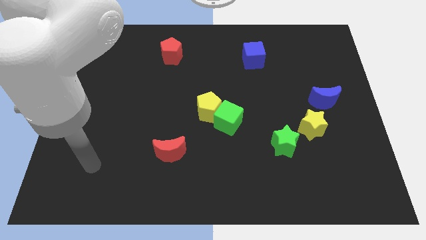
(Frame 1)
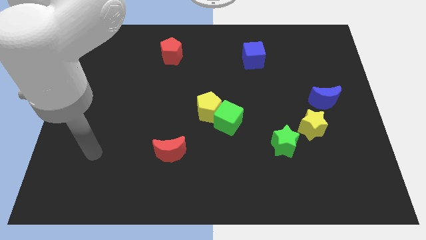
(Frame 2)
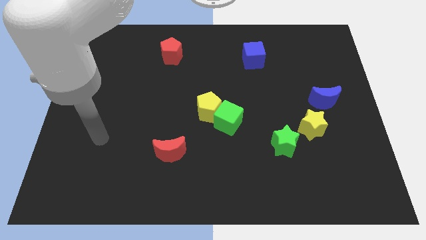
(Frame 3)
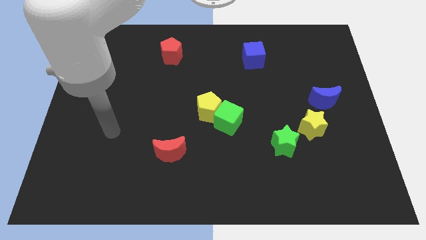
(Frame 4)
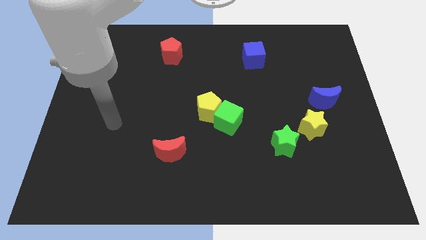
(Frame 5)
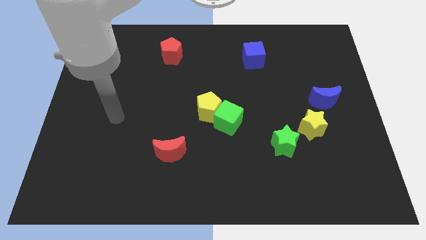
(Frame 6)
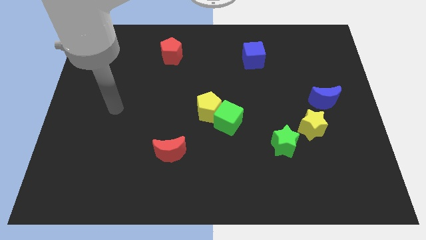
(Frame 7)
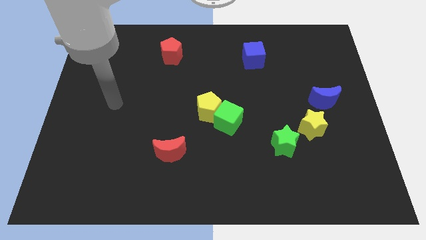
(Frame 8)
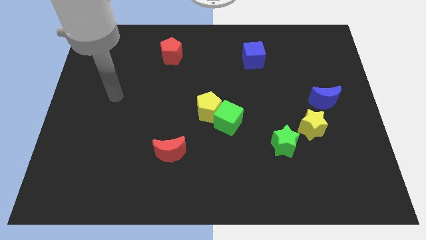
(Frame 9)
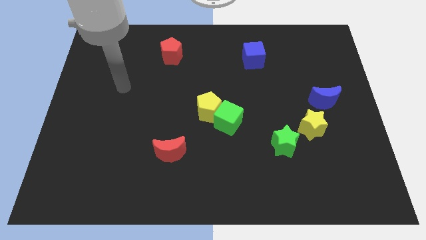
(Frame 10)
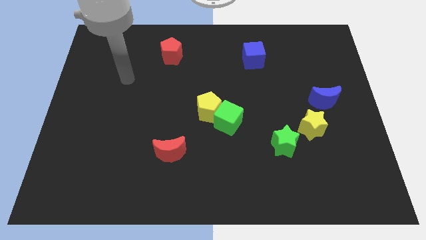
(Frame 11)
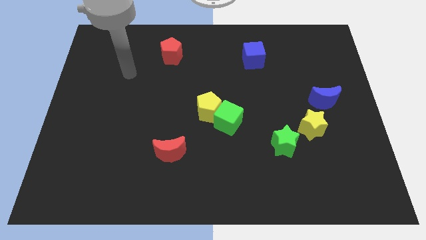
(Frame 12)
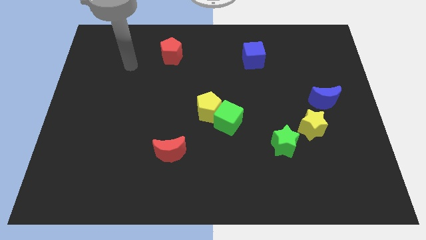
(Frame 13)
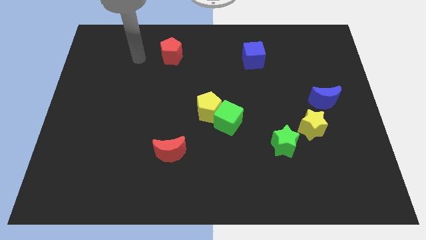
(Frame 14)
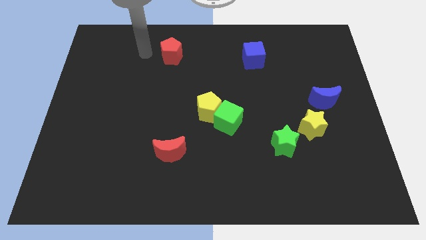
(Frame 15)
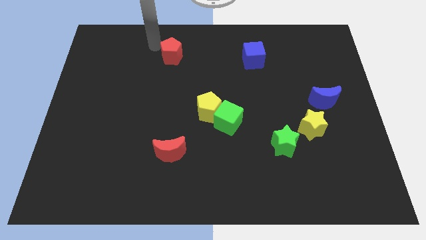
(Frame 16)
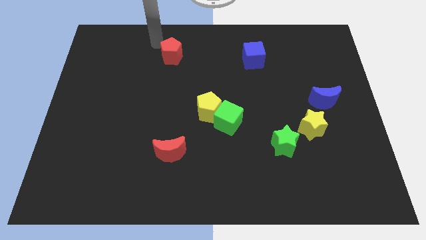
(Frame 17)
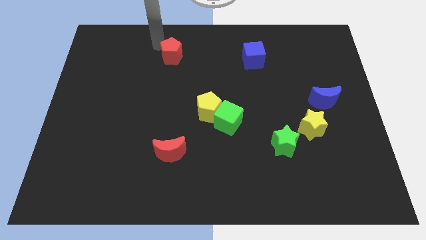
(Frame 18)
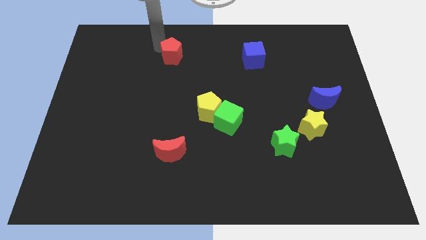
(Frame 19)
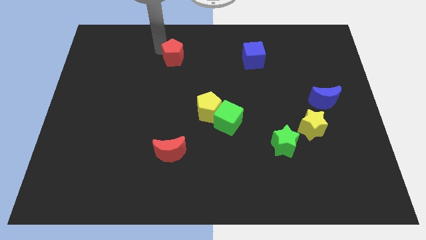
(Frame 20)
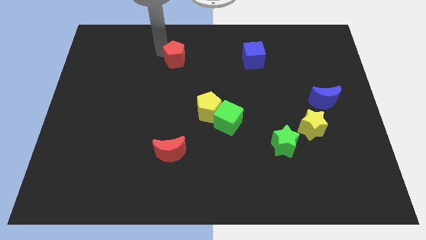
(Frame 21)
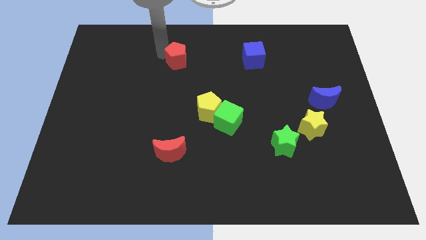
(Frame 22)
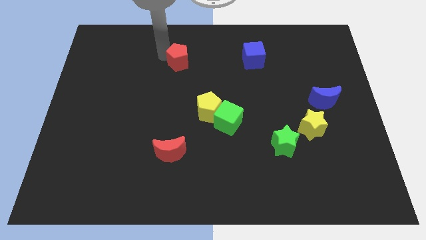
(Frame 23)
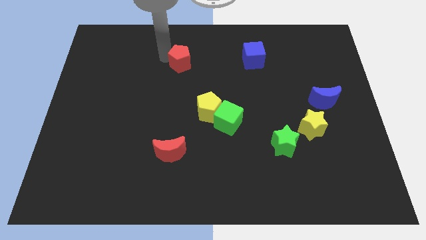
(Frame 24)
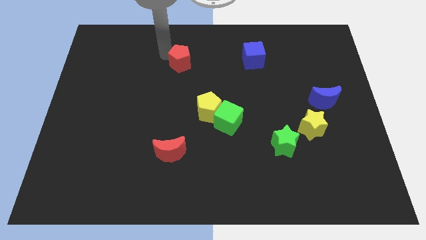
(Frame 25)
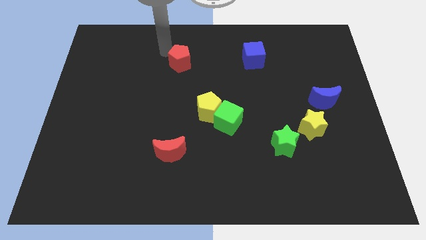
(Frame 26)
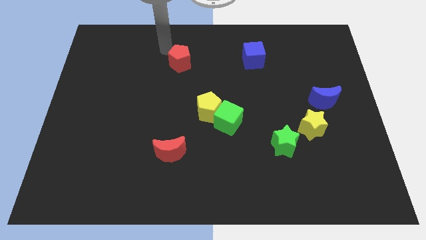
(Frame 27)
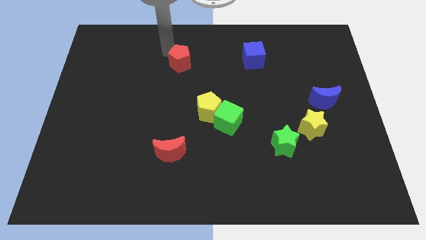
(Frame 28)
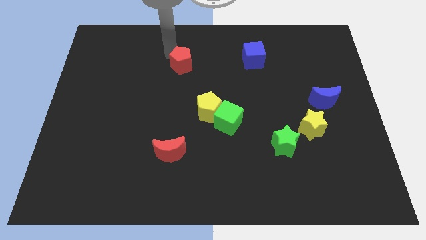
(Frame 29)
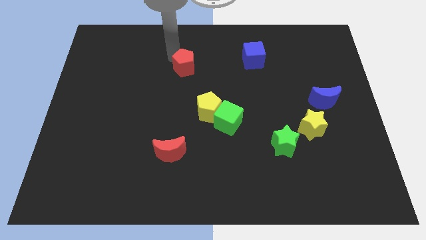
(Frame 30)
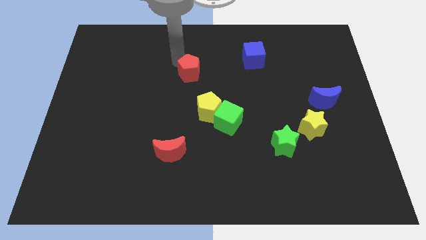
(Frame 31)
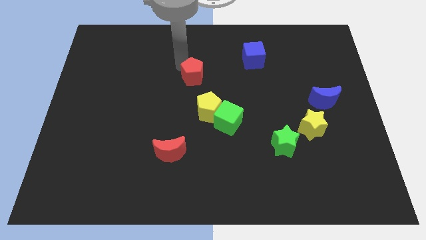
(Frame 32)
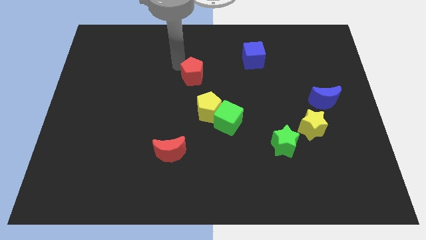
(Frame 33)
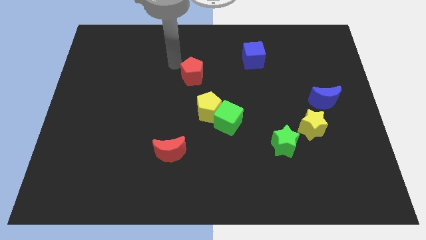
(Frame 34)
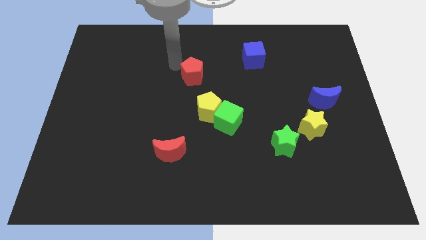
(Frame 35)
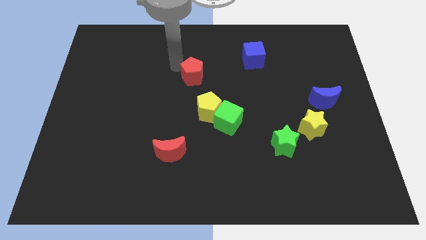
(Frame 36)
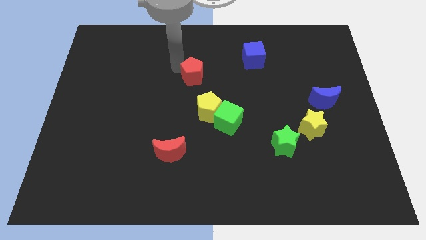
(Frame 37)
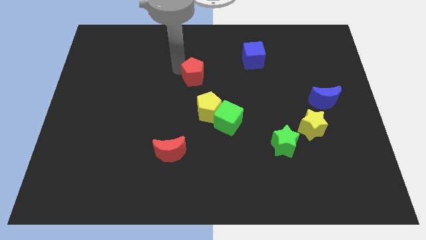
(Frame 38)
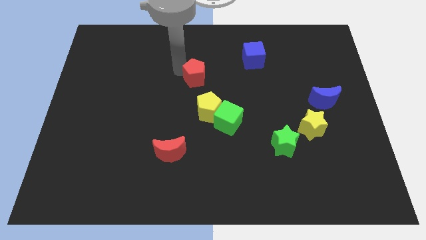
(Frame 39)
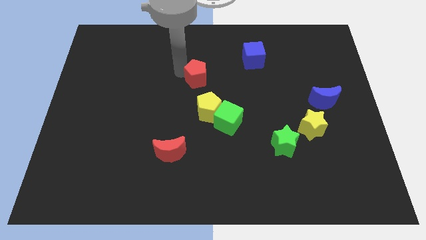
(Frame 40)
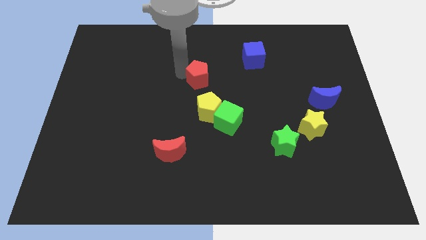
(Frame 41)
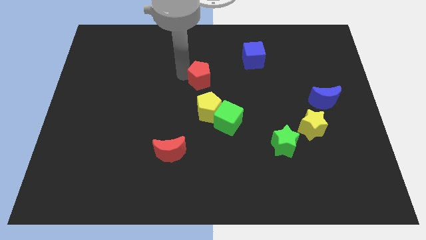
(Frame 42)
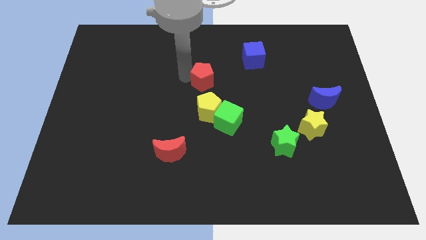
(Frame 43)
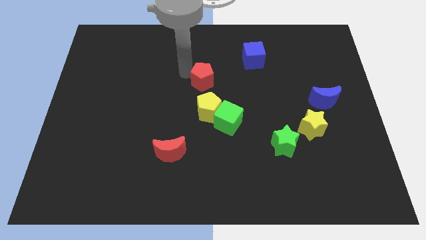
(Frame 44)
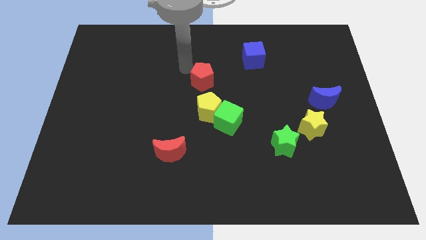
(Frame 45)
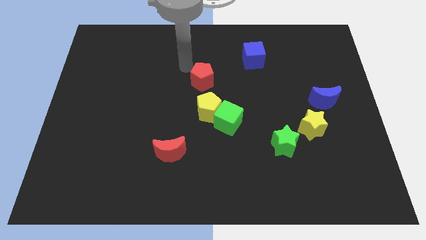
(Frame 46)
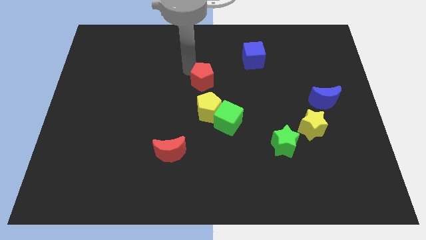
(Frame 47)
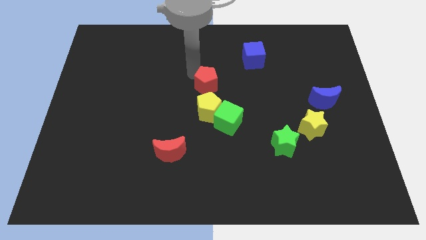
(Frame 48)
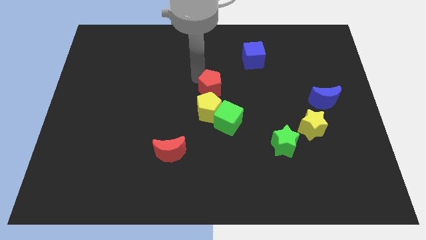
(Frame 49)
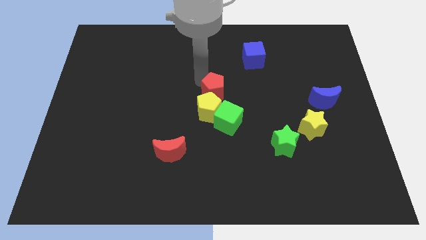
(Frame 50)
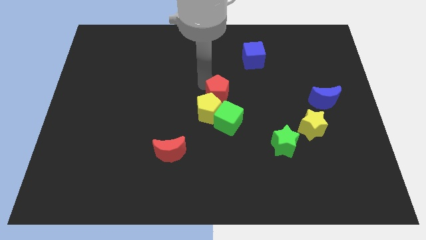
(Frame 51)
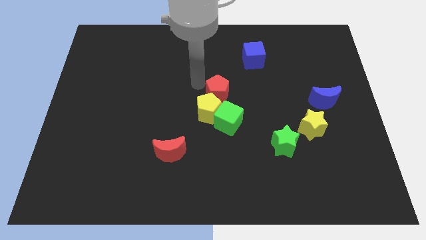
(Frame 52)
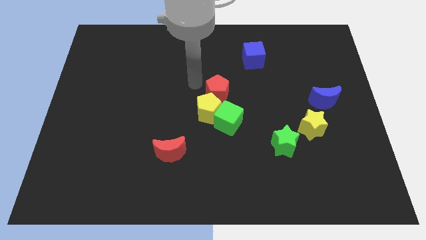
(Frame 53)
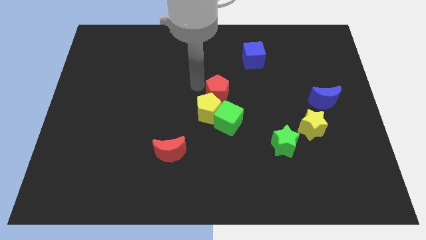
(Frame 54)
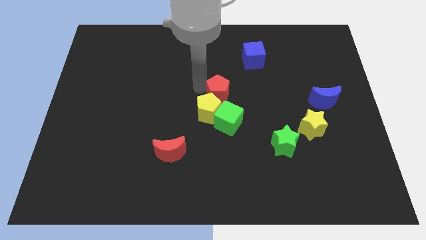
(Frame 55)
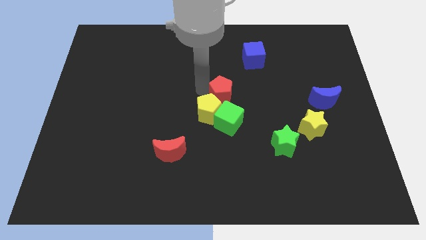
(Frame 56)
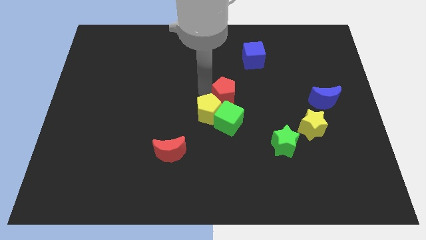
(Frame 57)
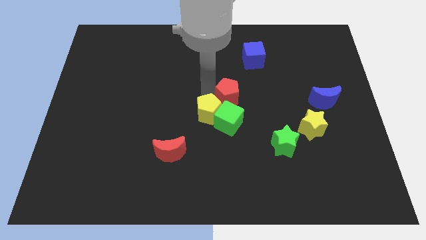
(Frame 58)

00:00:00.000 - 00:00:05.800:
put the red pentagon to the right of the yellow pentagon

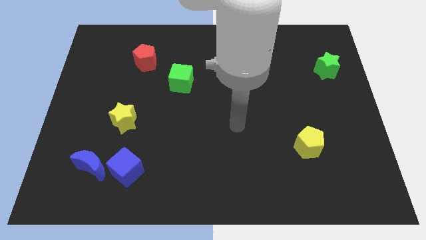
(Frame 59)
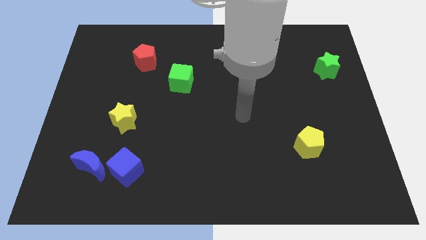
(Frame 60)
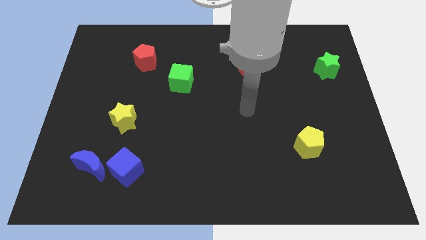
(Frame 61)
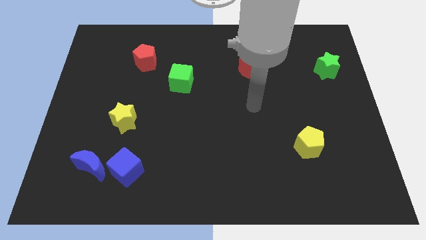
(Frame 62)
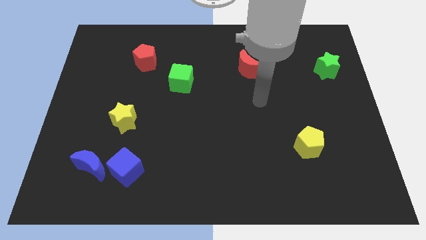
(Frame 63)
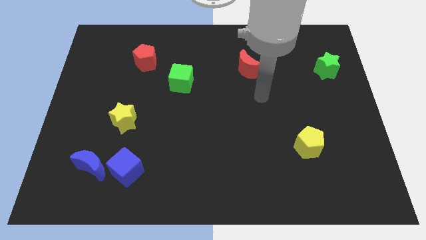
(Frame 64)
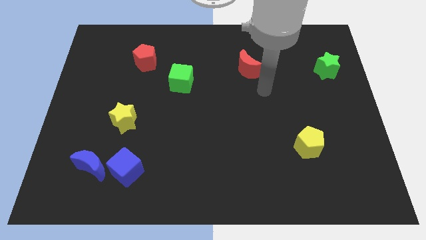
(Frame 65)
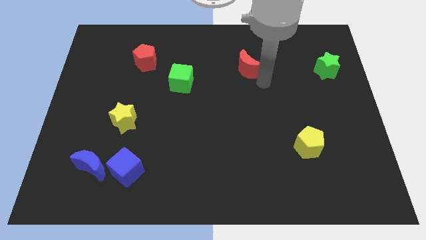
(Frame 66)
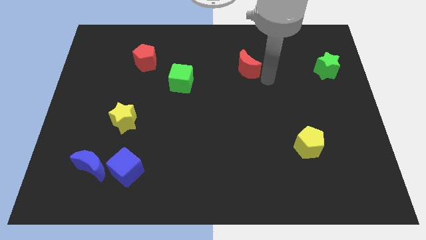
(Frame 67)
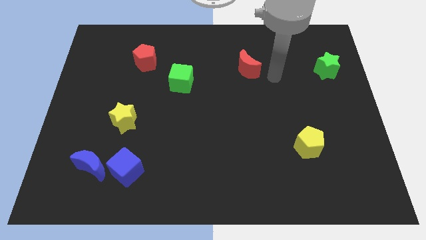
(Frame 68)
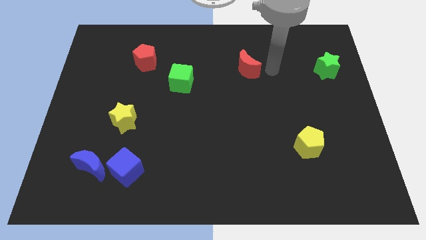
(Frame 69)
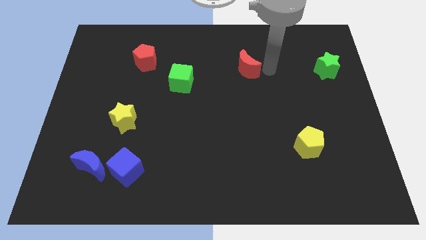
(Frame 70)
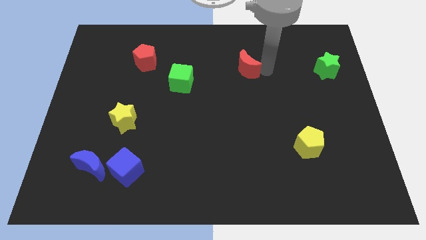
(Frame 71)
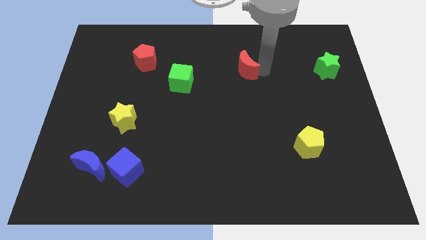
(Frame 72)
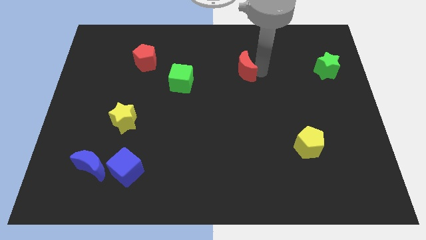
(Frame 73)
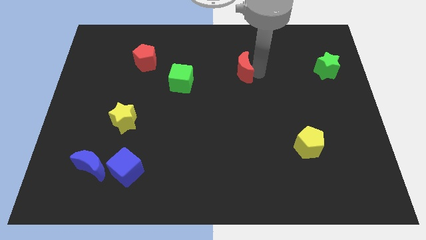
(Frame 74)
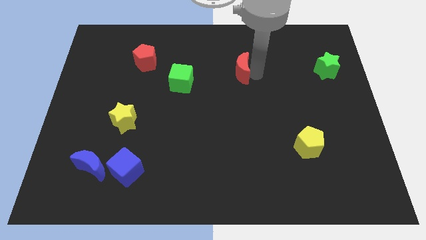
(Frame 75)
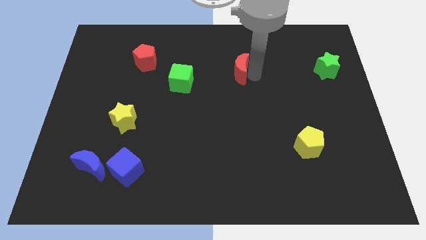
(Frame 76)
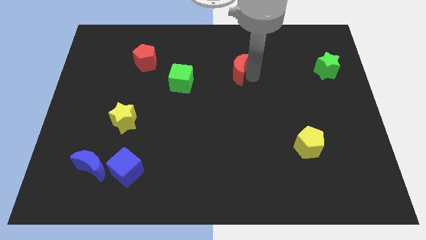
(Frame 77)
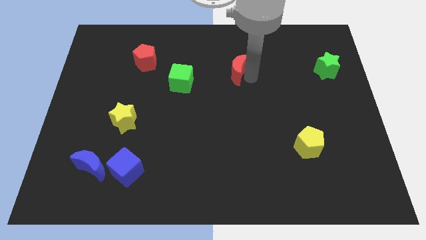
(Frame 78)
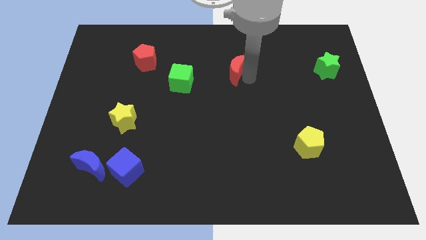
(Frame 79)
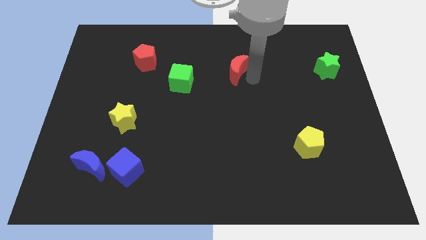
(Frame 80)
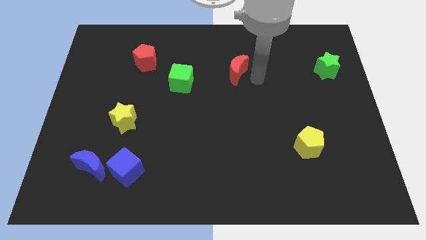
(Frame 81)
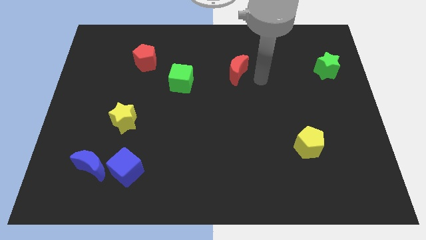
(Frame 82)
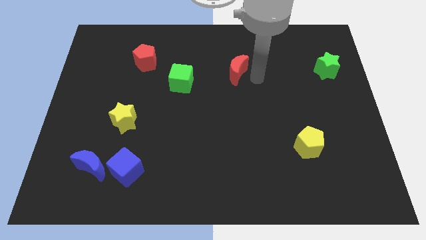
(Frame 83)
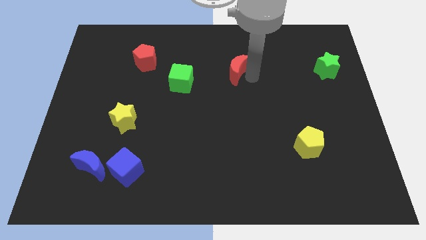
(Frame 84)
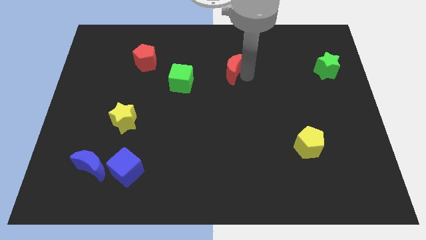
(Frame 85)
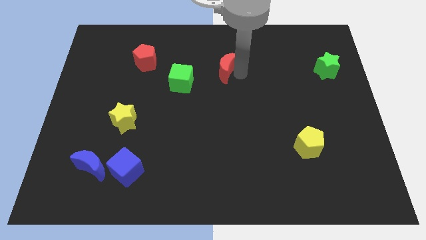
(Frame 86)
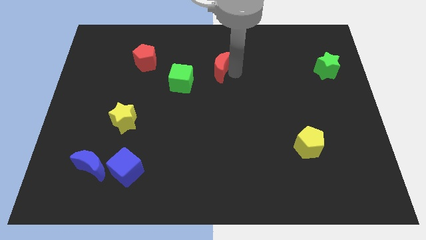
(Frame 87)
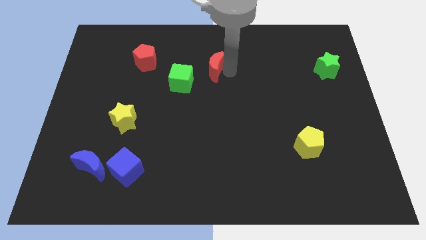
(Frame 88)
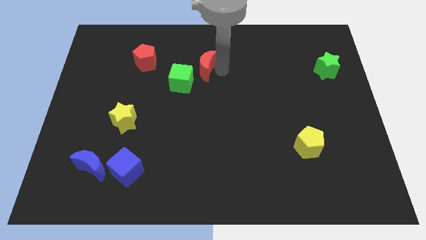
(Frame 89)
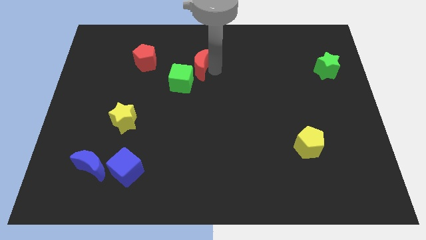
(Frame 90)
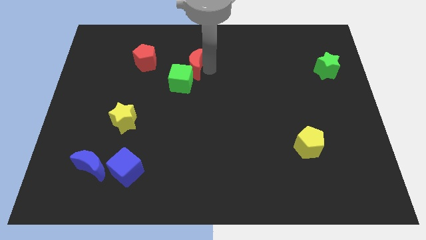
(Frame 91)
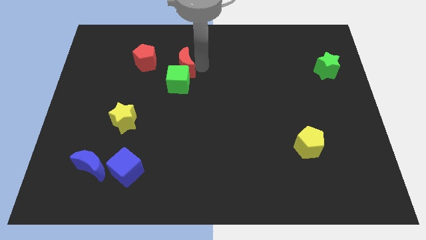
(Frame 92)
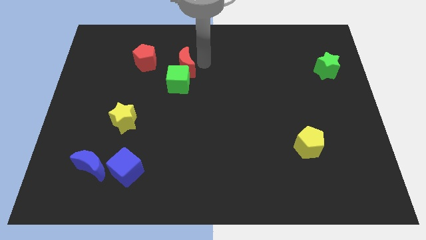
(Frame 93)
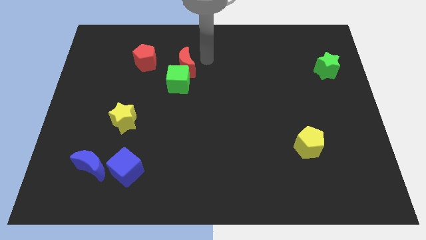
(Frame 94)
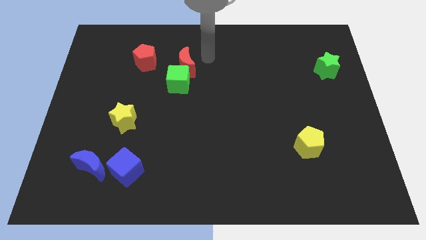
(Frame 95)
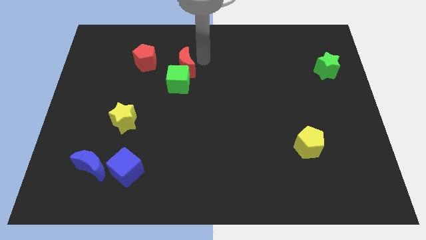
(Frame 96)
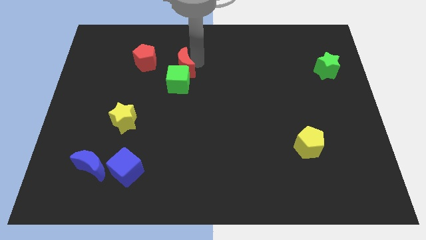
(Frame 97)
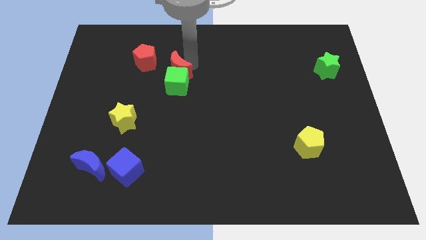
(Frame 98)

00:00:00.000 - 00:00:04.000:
push the red moon diagonally down and to the right of the red pentagon
